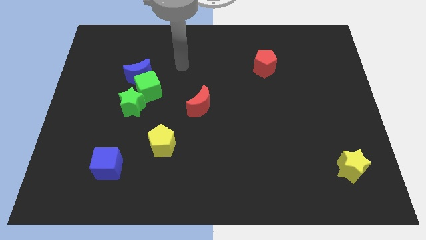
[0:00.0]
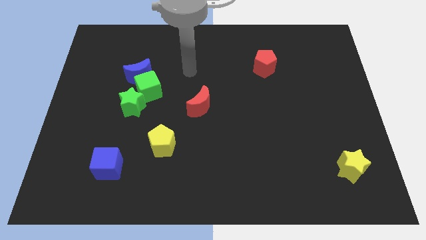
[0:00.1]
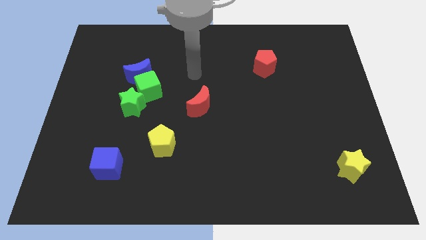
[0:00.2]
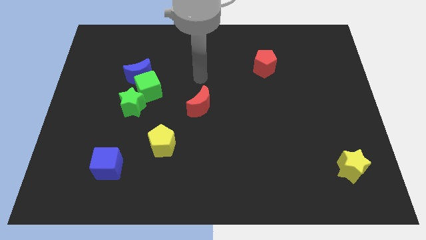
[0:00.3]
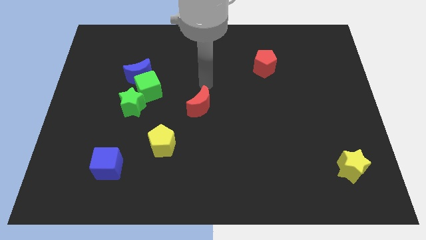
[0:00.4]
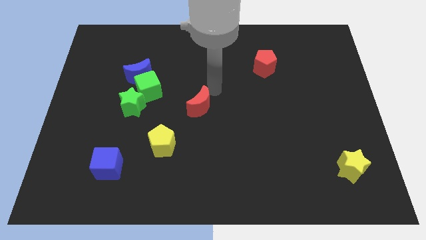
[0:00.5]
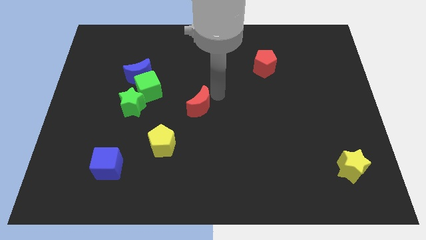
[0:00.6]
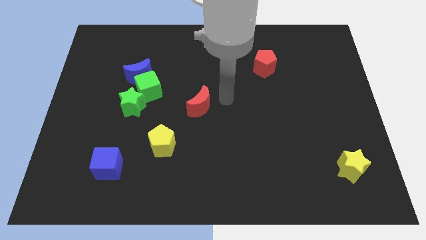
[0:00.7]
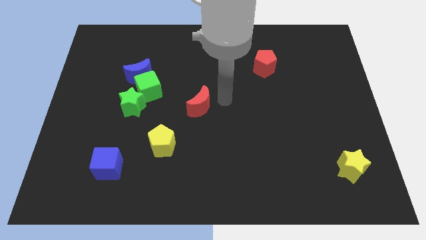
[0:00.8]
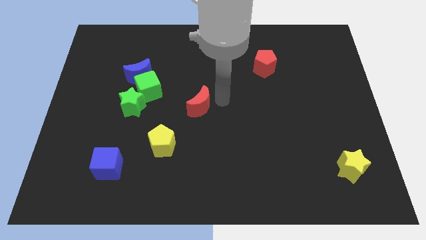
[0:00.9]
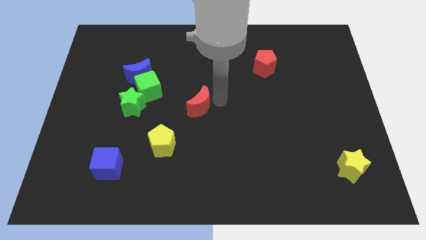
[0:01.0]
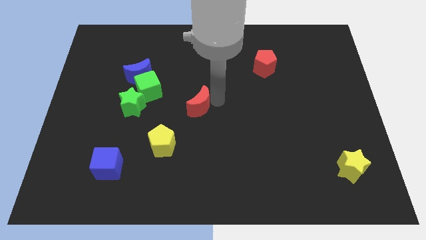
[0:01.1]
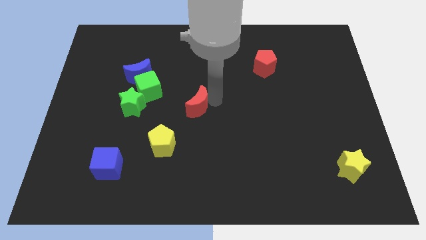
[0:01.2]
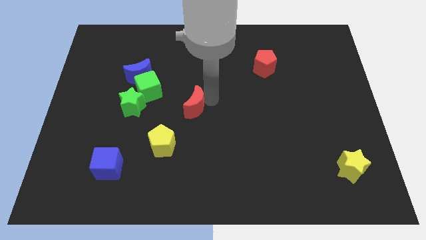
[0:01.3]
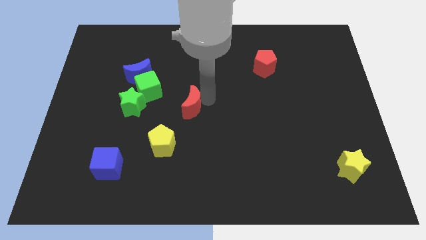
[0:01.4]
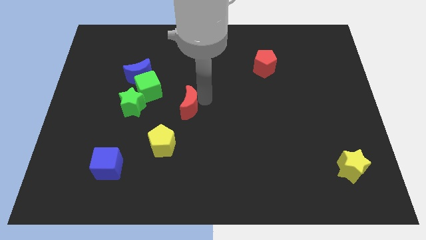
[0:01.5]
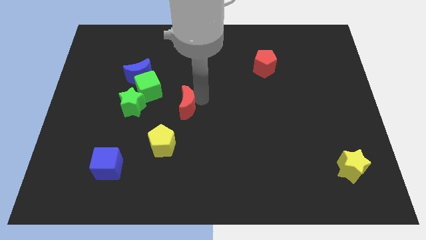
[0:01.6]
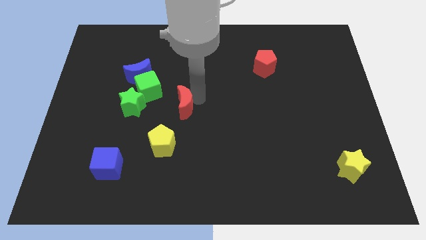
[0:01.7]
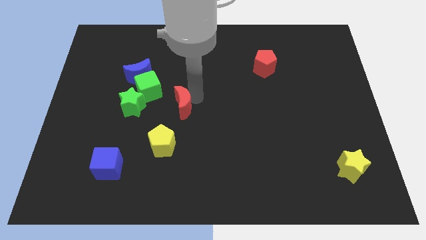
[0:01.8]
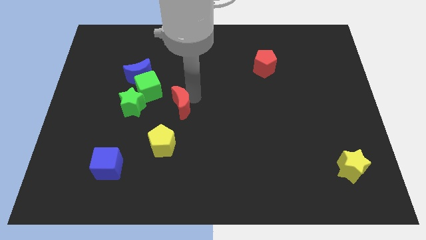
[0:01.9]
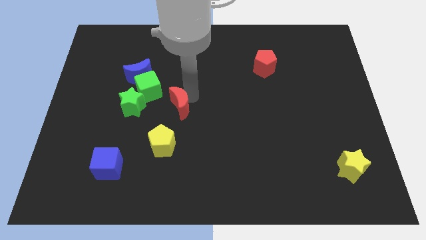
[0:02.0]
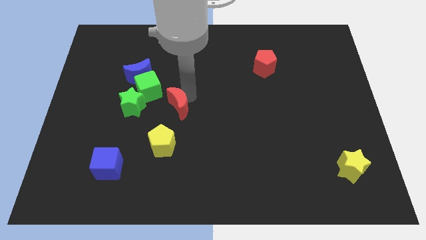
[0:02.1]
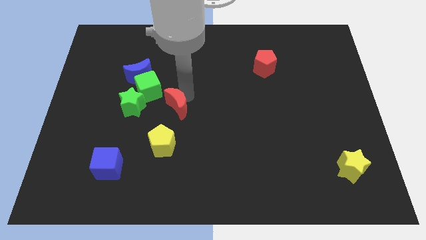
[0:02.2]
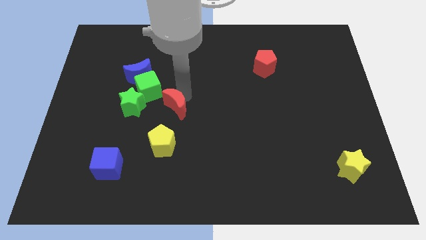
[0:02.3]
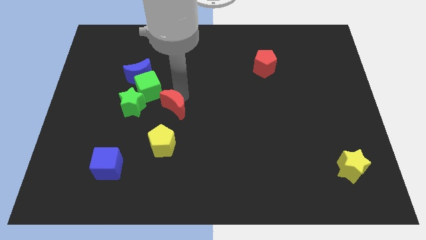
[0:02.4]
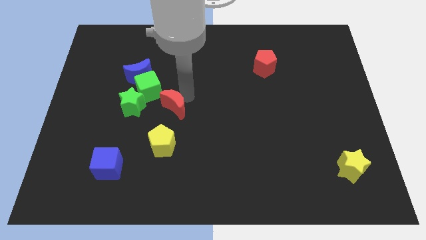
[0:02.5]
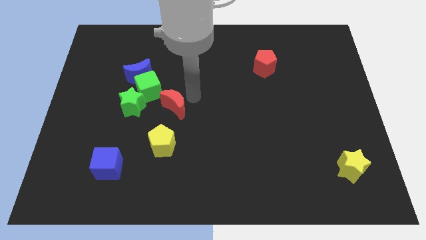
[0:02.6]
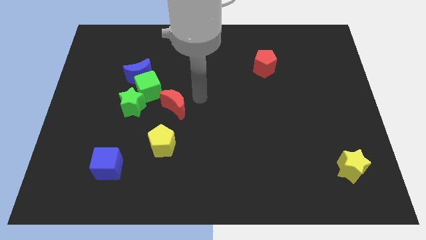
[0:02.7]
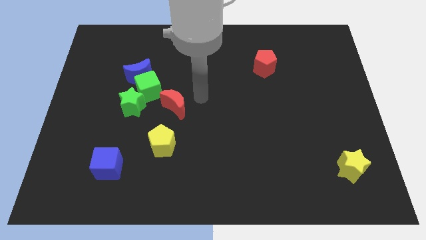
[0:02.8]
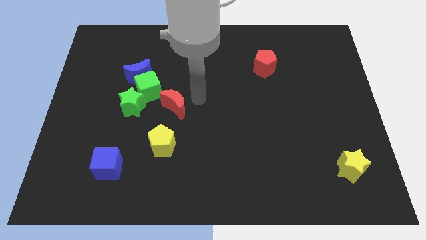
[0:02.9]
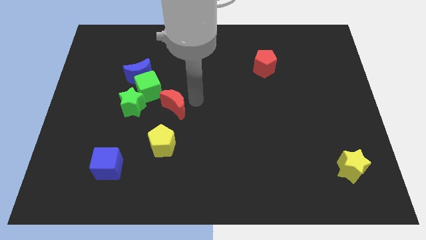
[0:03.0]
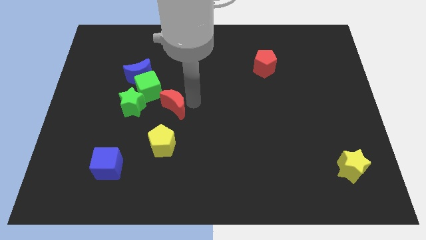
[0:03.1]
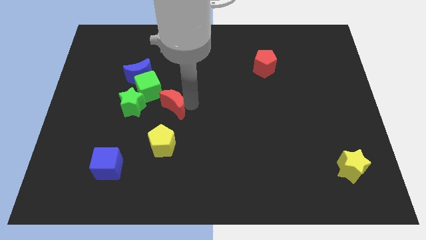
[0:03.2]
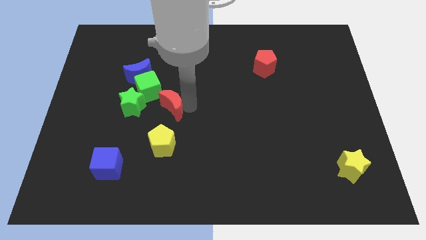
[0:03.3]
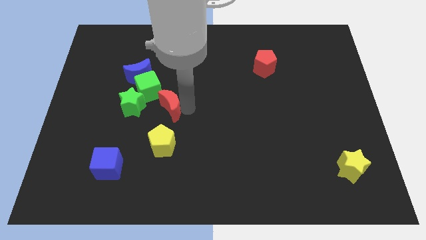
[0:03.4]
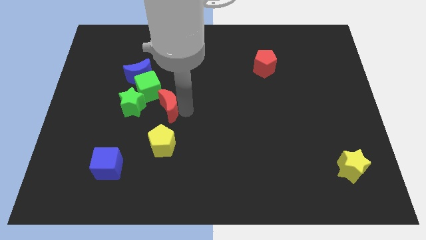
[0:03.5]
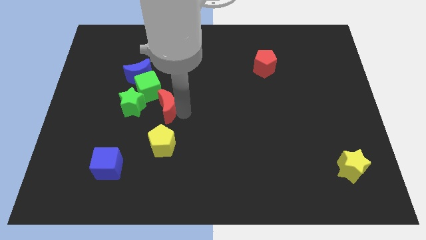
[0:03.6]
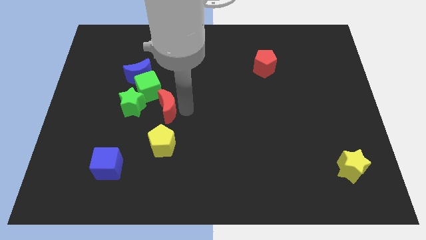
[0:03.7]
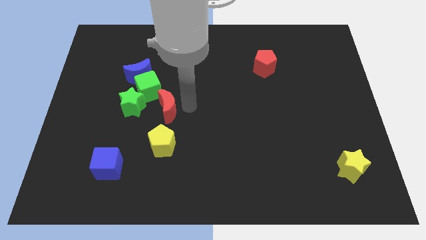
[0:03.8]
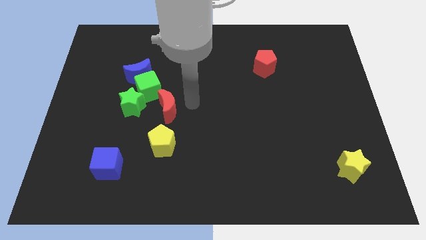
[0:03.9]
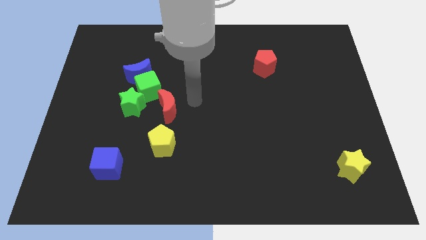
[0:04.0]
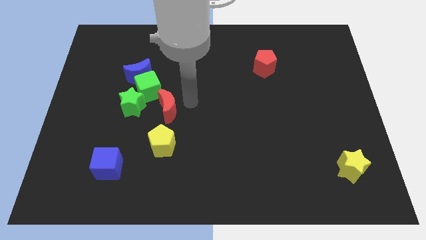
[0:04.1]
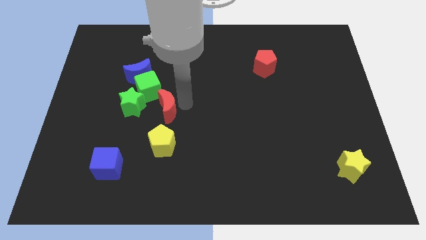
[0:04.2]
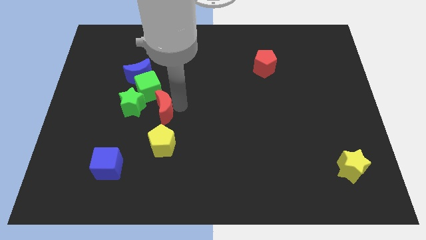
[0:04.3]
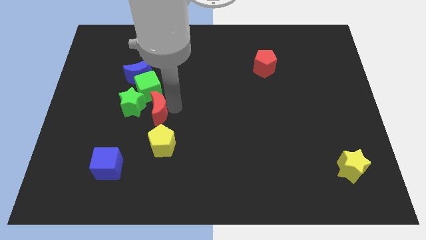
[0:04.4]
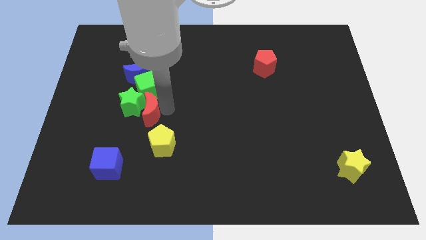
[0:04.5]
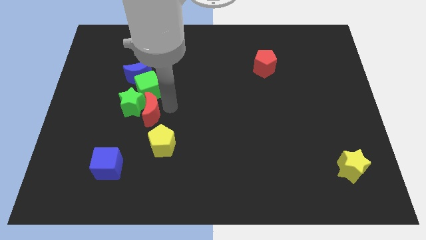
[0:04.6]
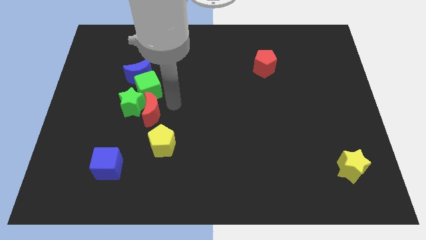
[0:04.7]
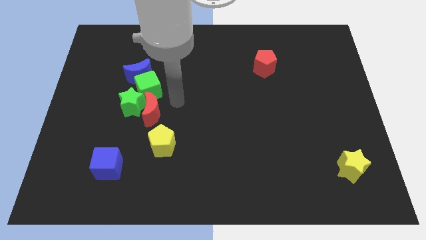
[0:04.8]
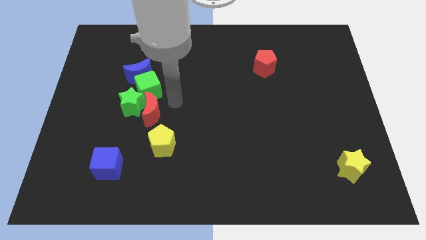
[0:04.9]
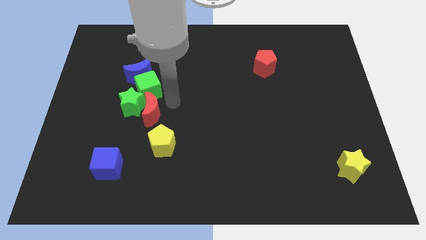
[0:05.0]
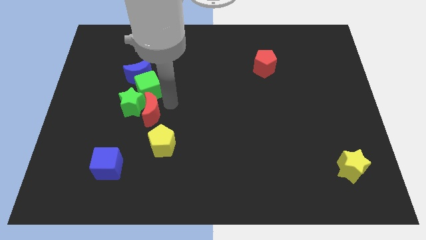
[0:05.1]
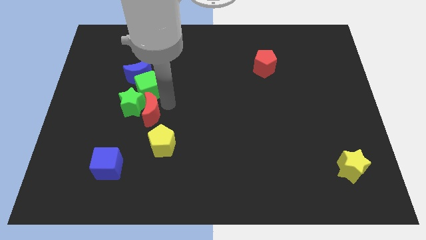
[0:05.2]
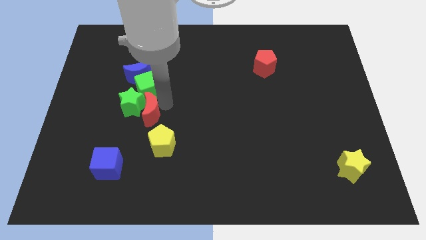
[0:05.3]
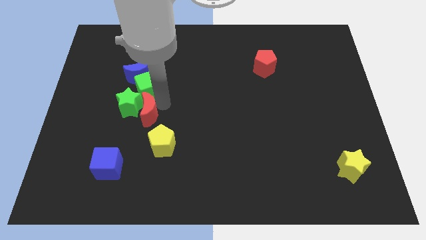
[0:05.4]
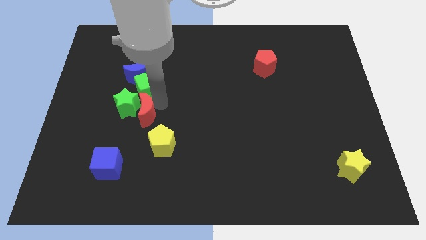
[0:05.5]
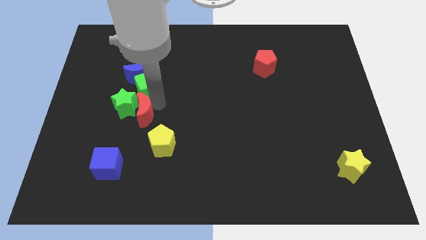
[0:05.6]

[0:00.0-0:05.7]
push the red moon diagonally down and to the left of the green cube

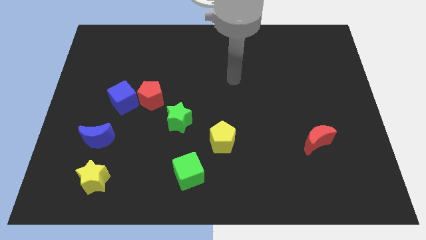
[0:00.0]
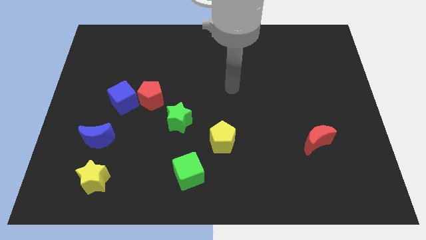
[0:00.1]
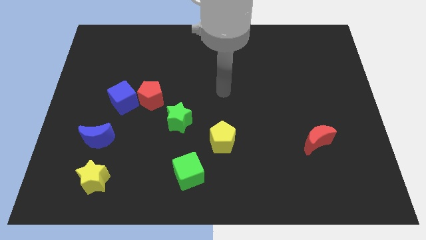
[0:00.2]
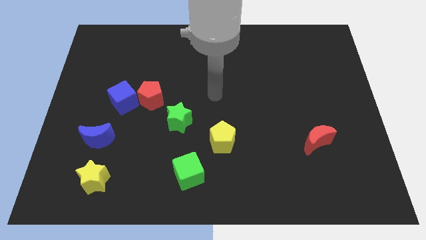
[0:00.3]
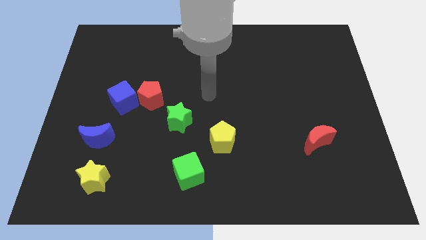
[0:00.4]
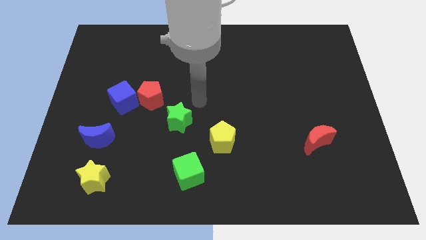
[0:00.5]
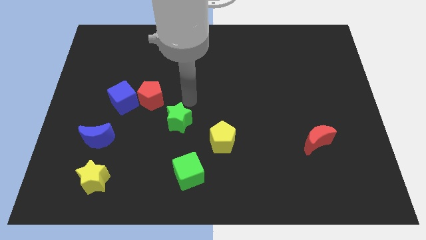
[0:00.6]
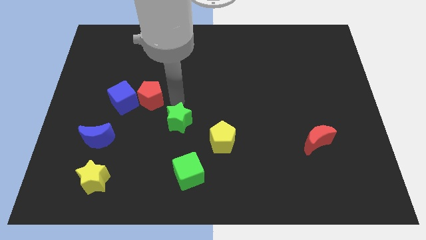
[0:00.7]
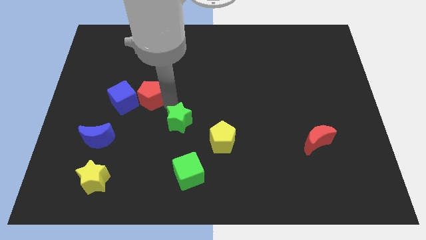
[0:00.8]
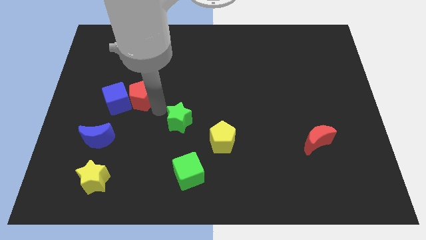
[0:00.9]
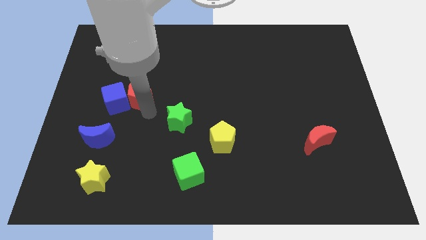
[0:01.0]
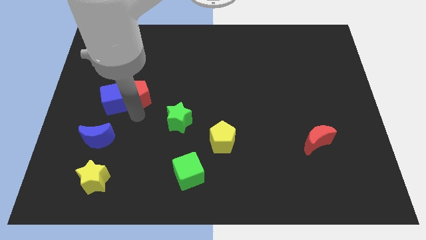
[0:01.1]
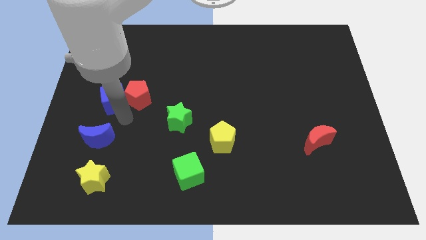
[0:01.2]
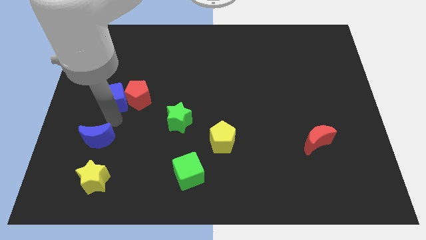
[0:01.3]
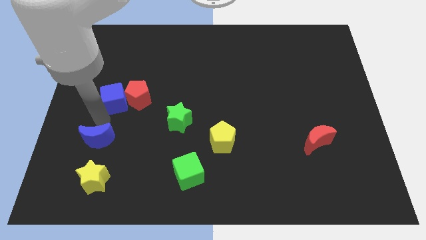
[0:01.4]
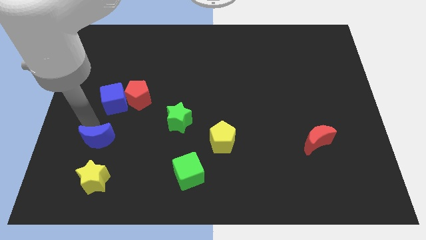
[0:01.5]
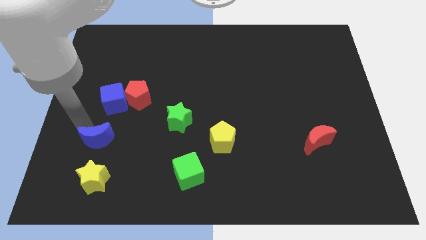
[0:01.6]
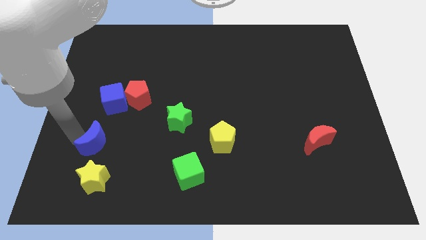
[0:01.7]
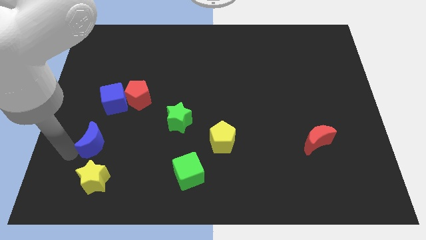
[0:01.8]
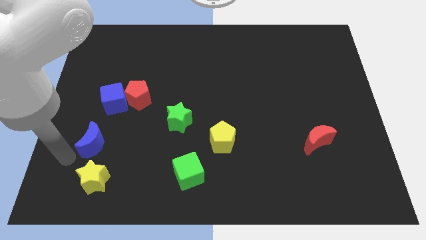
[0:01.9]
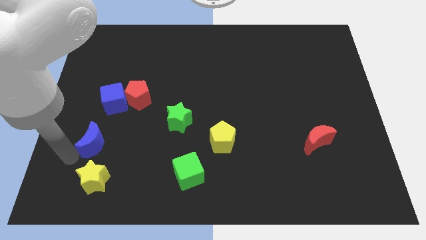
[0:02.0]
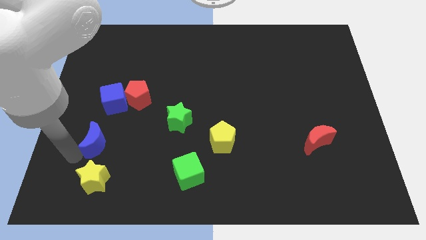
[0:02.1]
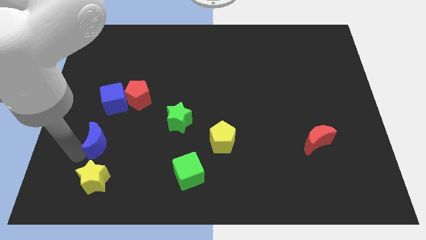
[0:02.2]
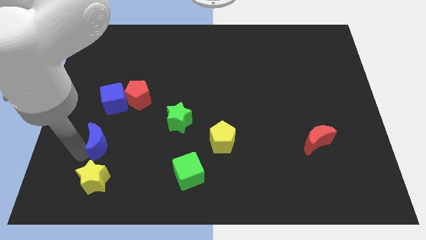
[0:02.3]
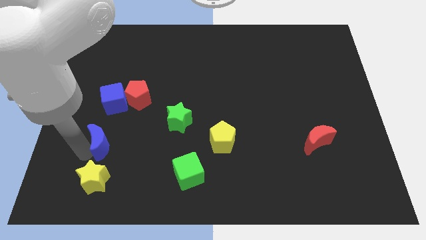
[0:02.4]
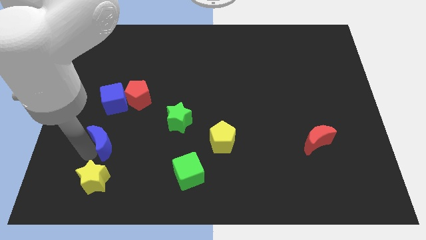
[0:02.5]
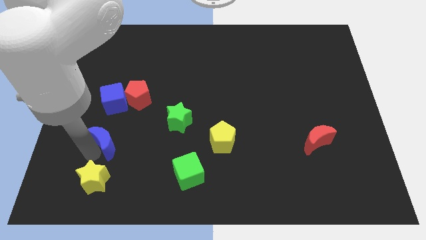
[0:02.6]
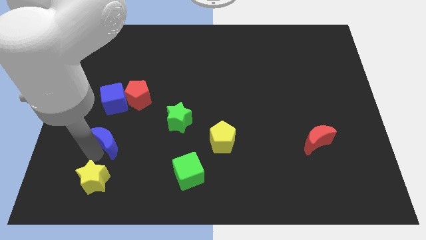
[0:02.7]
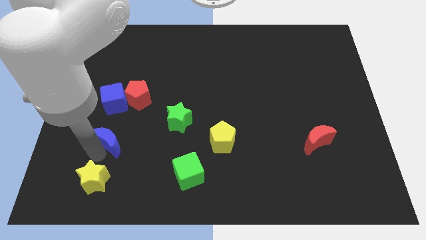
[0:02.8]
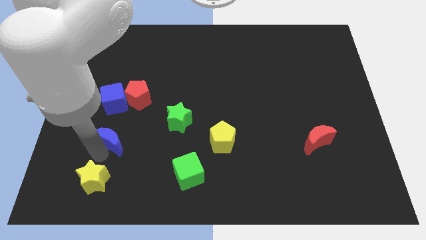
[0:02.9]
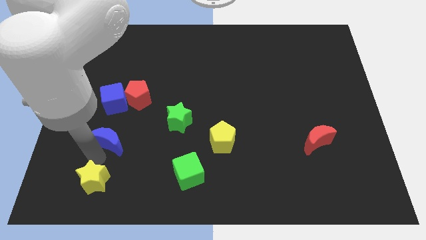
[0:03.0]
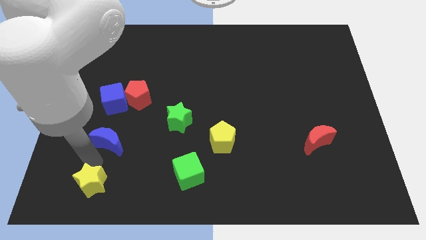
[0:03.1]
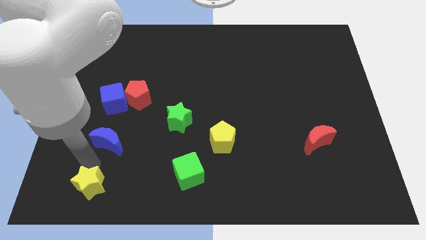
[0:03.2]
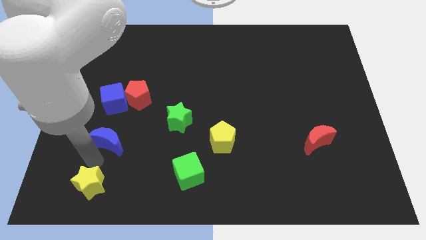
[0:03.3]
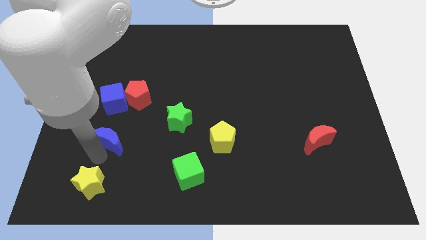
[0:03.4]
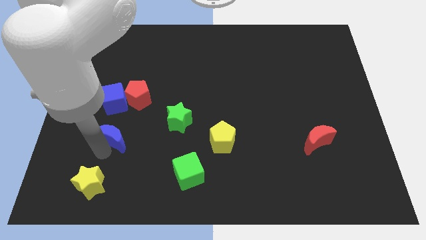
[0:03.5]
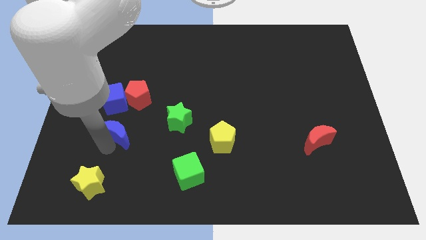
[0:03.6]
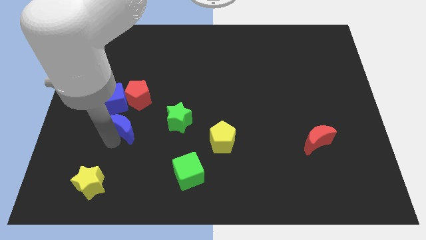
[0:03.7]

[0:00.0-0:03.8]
put the blue moon diagonally down and to the right of the blue cube
